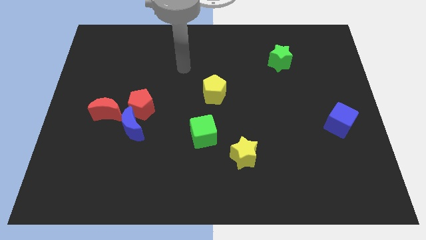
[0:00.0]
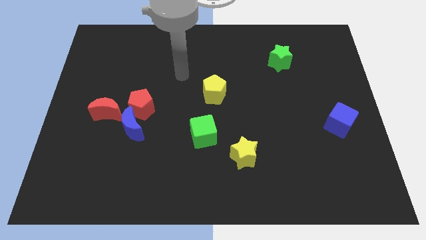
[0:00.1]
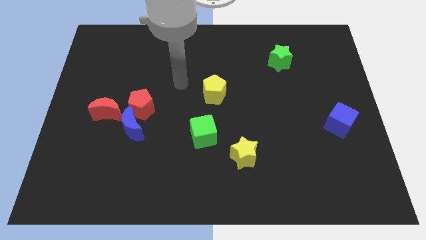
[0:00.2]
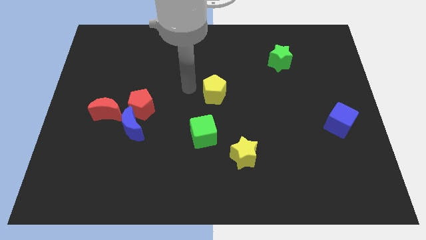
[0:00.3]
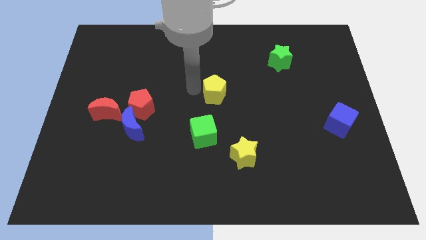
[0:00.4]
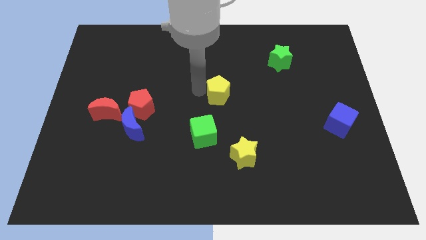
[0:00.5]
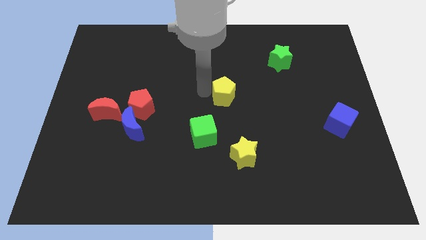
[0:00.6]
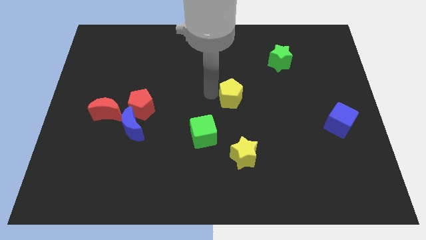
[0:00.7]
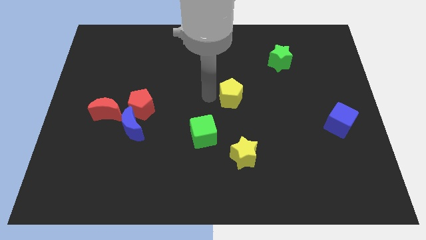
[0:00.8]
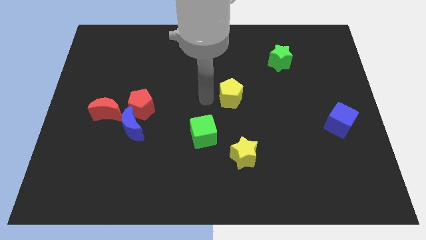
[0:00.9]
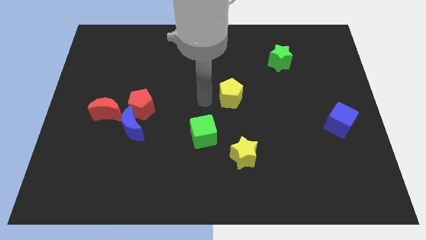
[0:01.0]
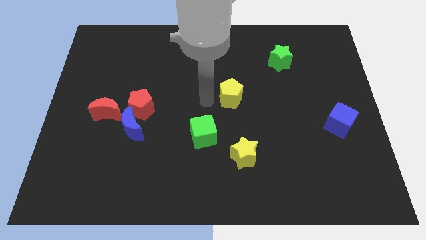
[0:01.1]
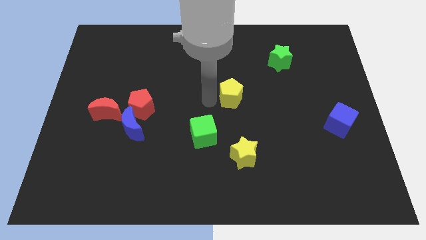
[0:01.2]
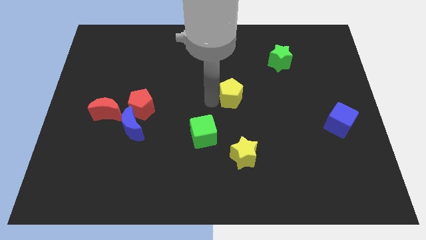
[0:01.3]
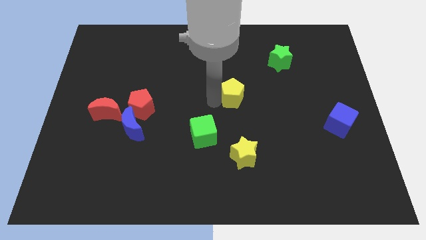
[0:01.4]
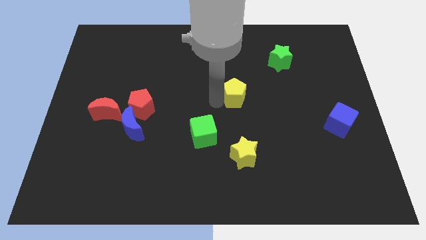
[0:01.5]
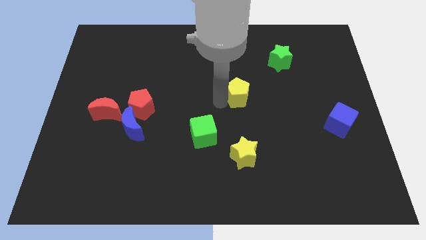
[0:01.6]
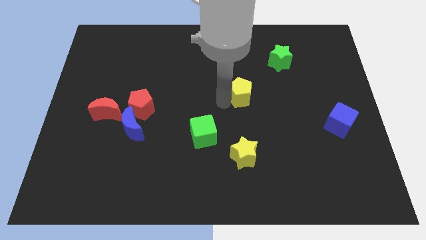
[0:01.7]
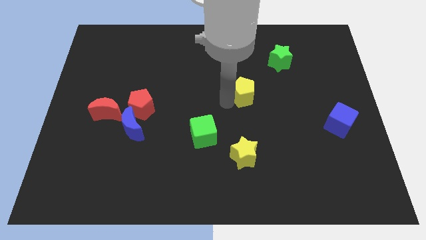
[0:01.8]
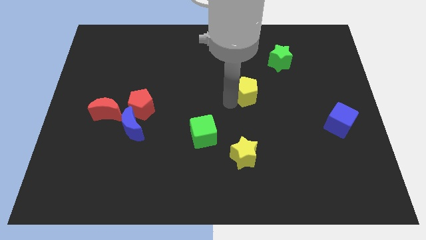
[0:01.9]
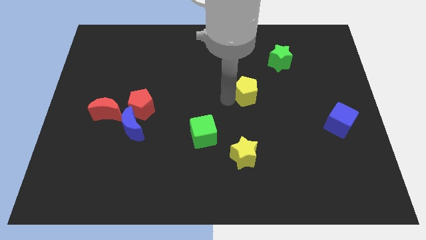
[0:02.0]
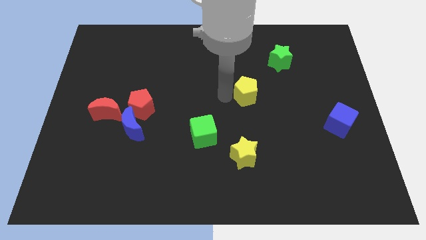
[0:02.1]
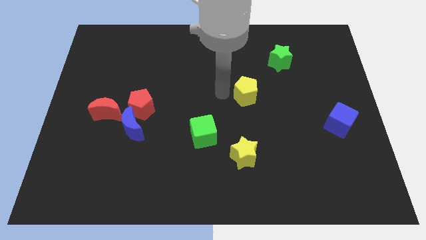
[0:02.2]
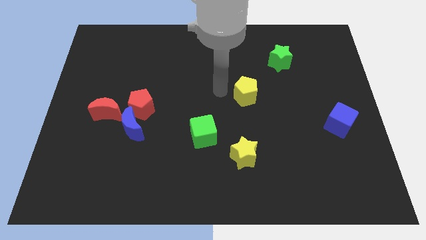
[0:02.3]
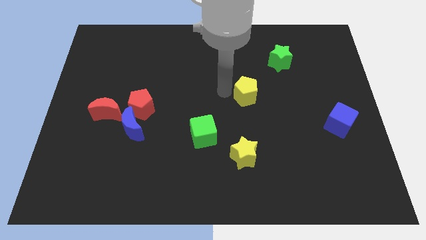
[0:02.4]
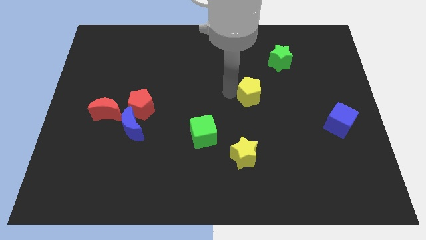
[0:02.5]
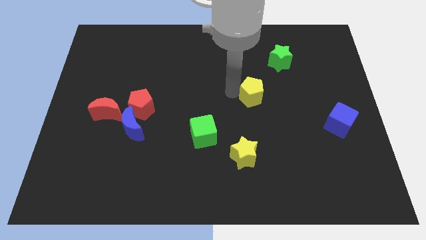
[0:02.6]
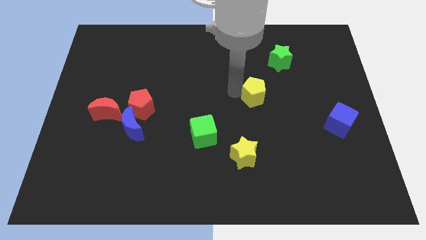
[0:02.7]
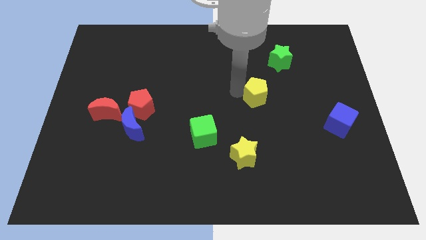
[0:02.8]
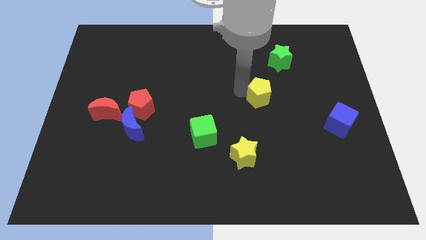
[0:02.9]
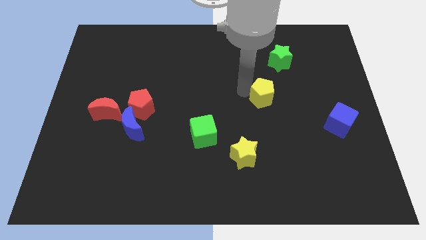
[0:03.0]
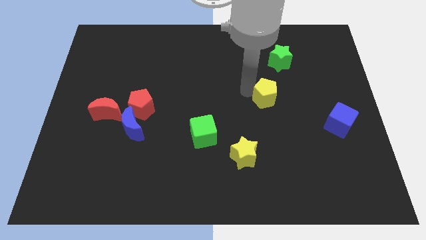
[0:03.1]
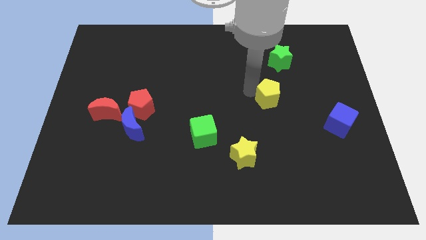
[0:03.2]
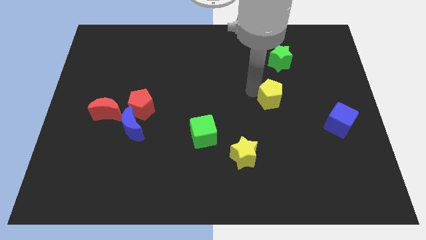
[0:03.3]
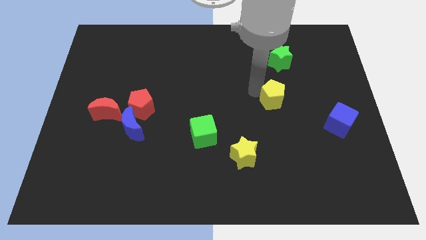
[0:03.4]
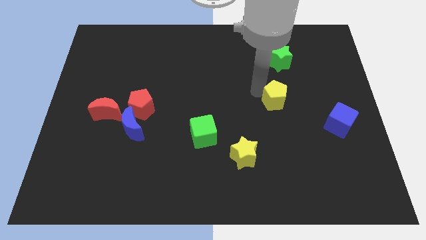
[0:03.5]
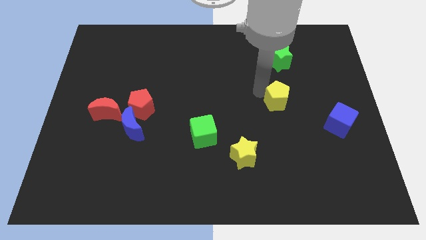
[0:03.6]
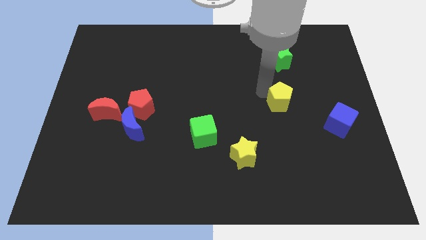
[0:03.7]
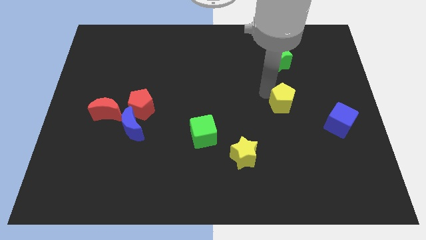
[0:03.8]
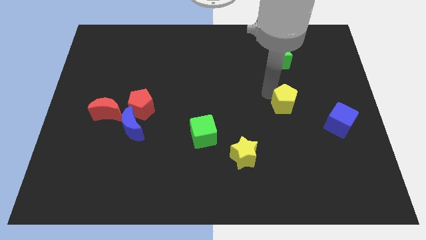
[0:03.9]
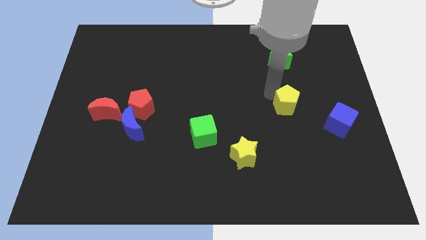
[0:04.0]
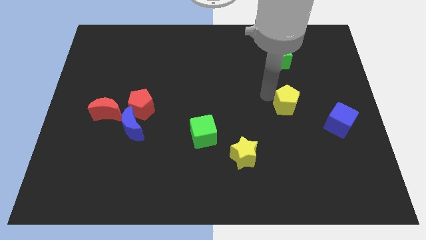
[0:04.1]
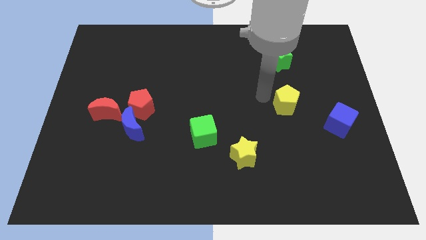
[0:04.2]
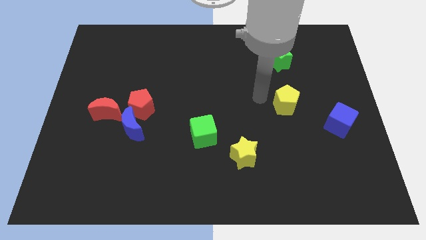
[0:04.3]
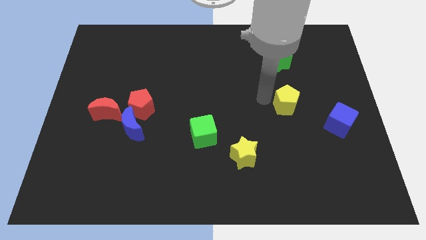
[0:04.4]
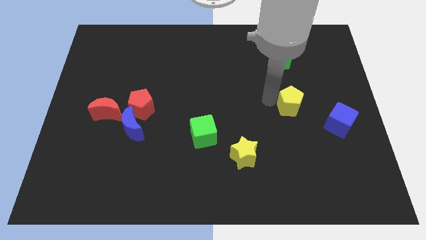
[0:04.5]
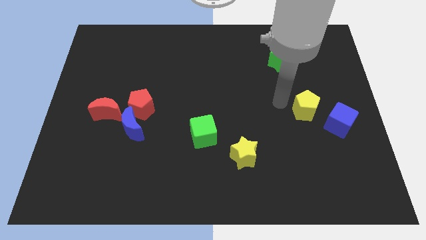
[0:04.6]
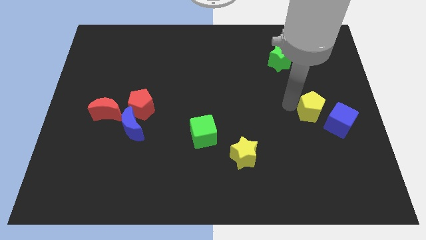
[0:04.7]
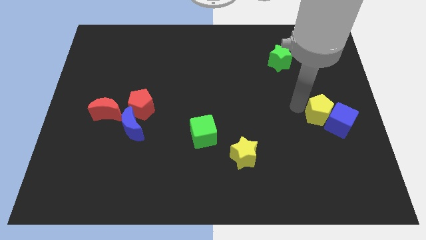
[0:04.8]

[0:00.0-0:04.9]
move the yellow pentagon towards the blue cube

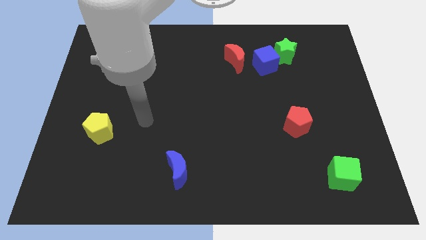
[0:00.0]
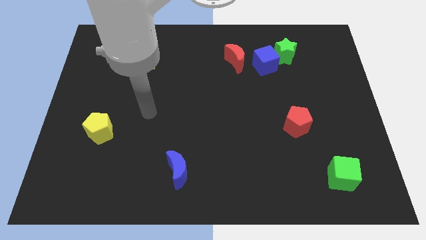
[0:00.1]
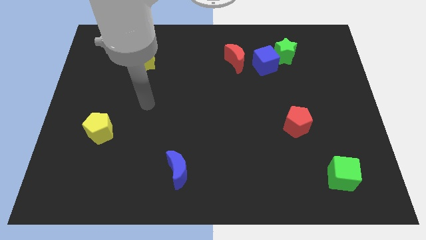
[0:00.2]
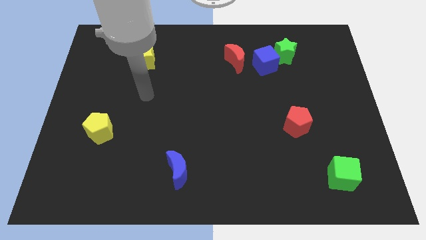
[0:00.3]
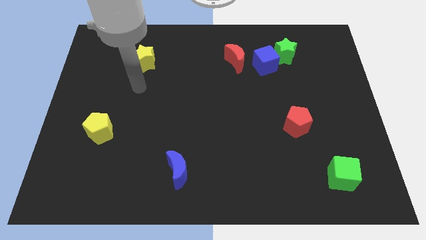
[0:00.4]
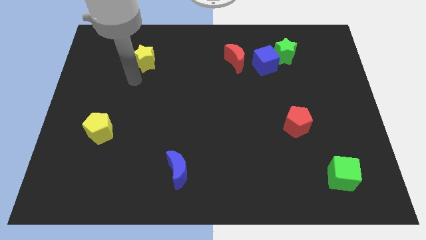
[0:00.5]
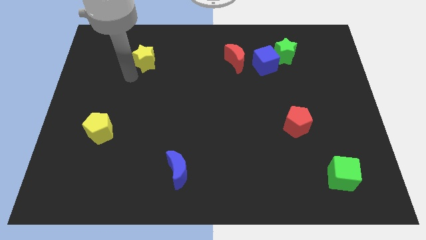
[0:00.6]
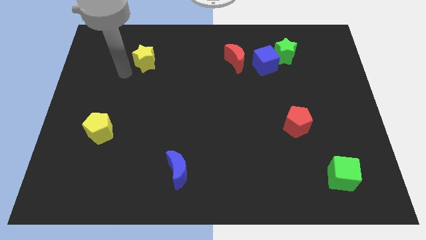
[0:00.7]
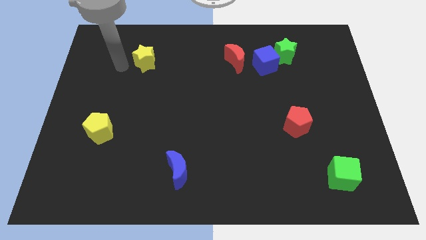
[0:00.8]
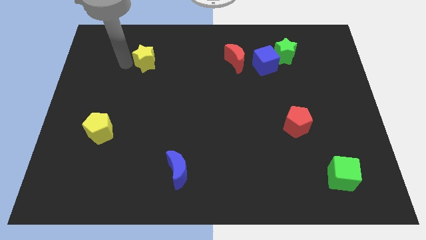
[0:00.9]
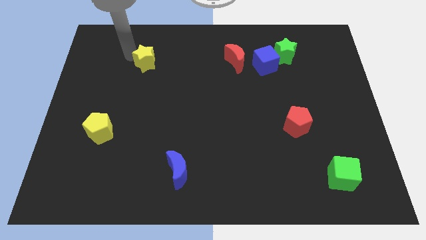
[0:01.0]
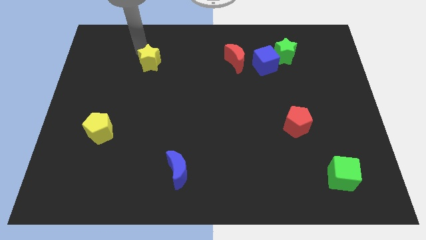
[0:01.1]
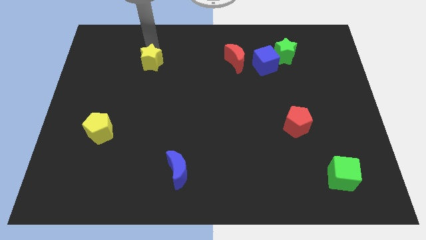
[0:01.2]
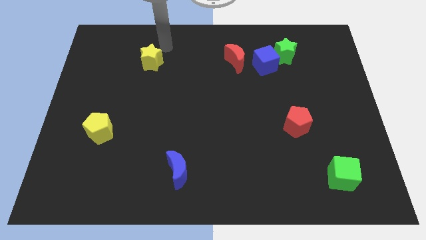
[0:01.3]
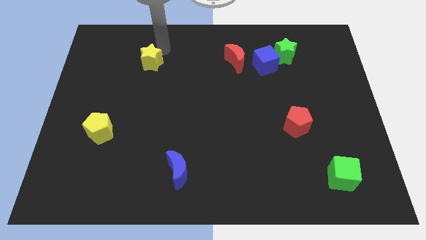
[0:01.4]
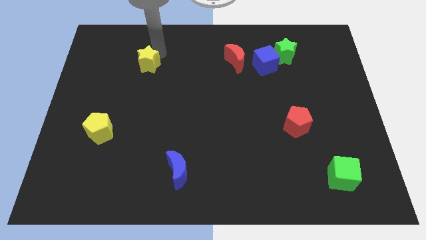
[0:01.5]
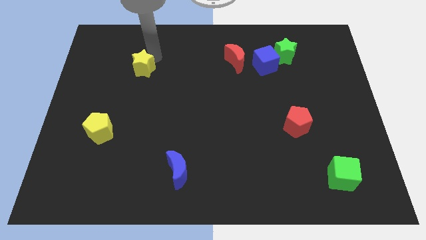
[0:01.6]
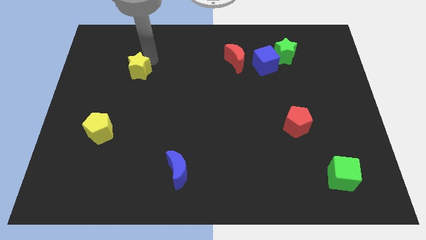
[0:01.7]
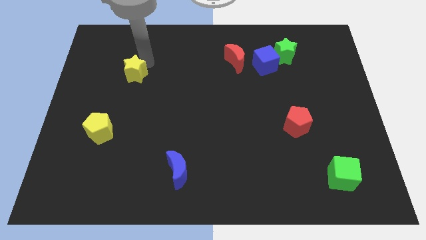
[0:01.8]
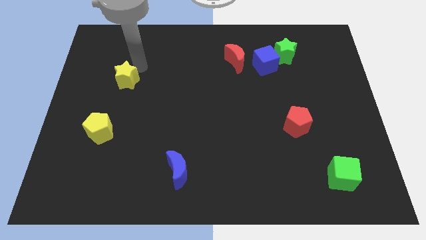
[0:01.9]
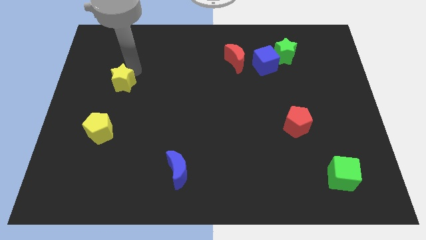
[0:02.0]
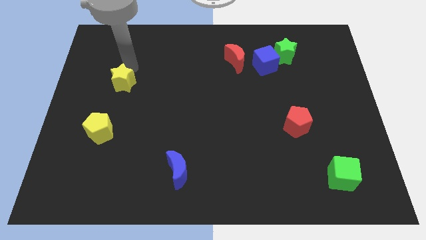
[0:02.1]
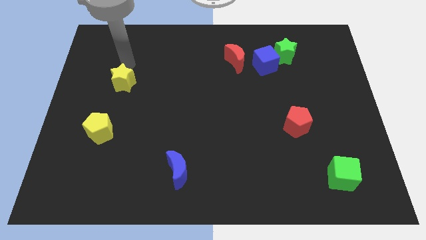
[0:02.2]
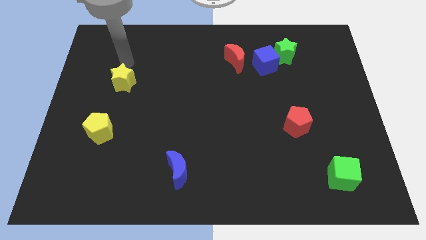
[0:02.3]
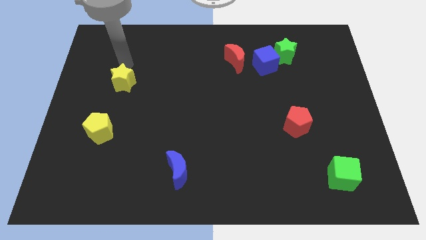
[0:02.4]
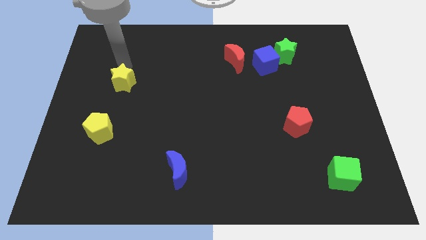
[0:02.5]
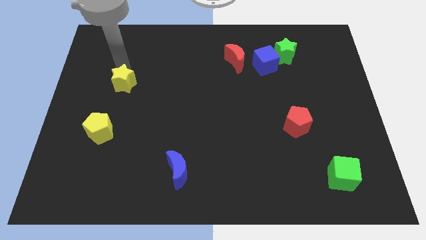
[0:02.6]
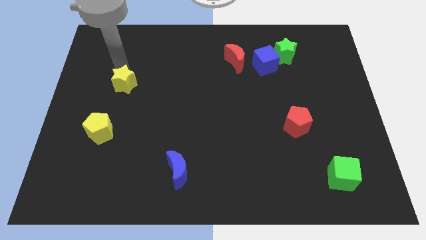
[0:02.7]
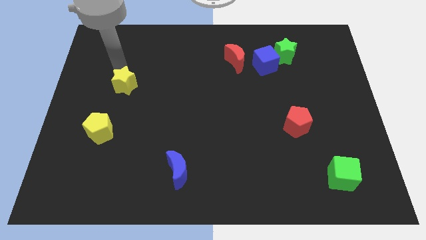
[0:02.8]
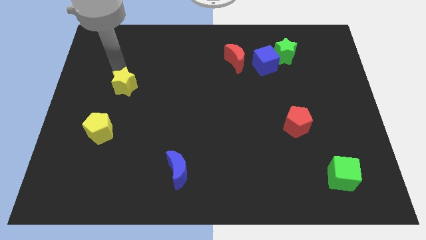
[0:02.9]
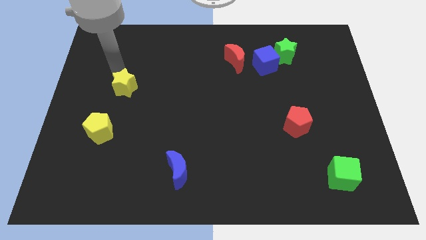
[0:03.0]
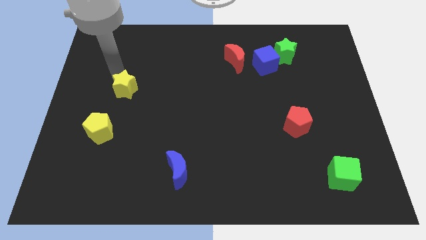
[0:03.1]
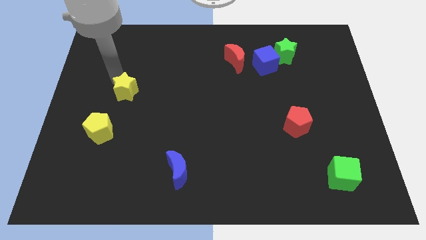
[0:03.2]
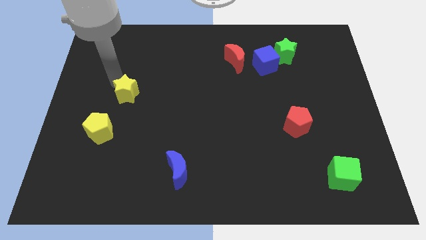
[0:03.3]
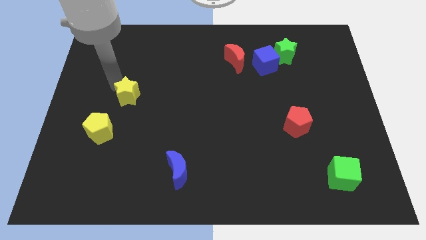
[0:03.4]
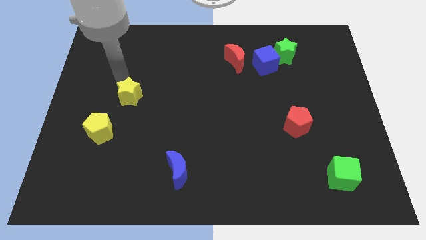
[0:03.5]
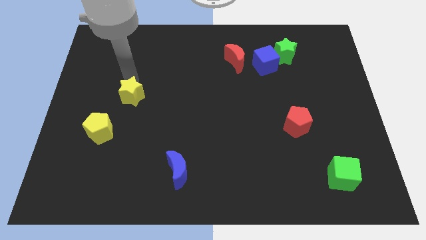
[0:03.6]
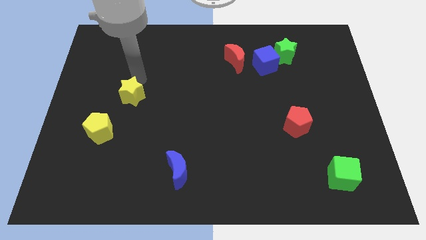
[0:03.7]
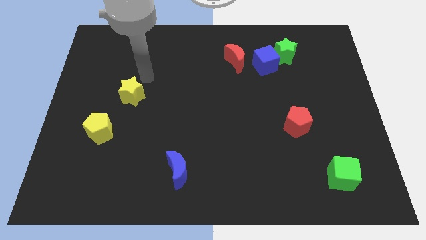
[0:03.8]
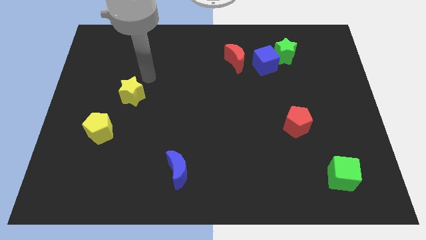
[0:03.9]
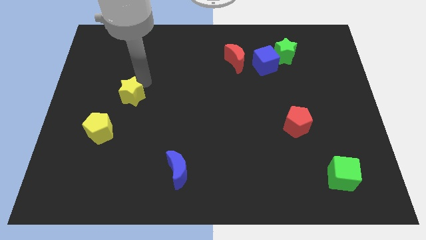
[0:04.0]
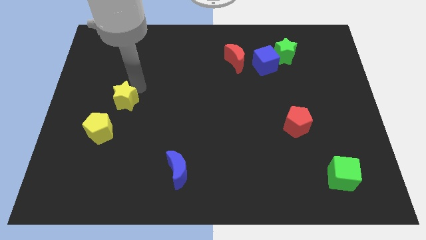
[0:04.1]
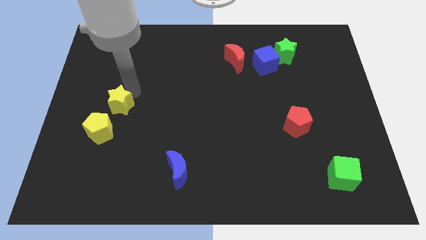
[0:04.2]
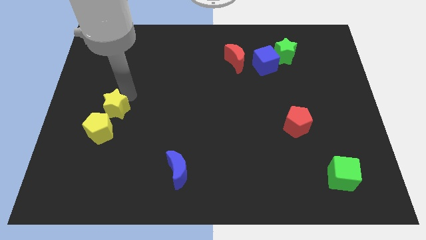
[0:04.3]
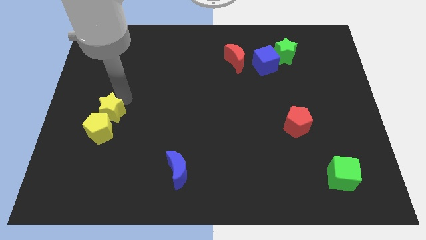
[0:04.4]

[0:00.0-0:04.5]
push the yellow star close to the yellow pentagon
